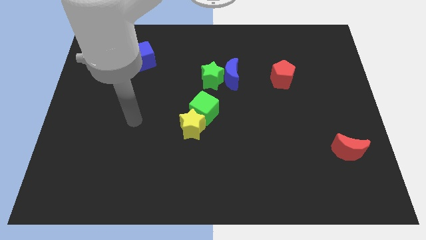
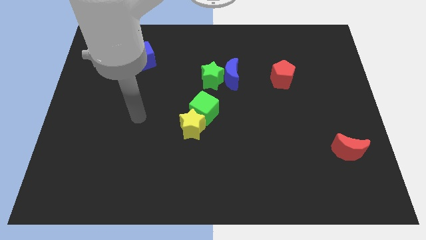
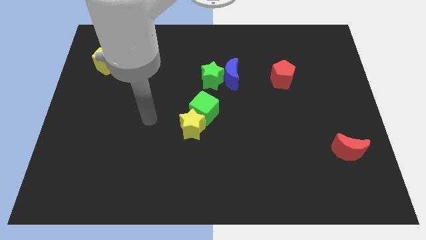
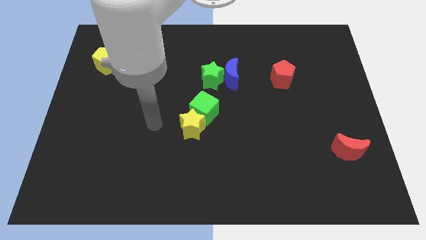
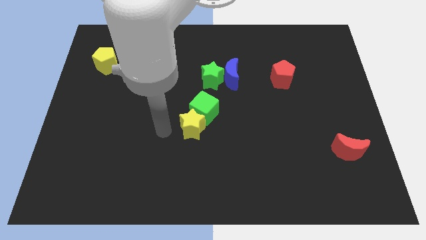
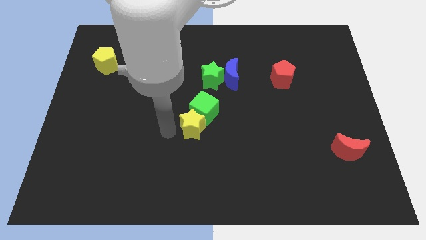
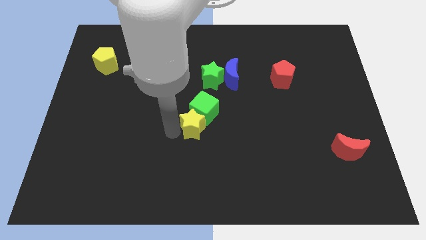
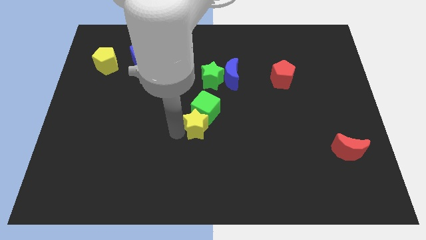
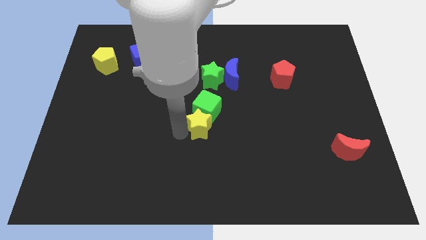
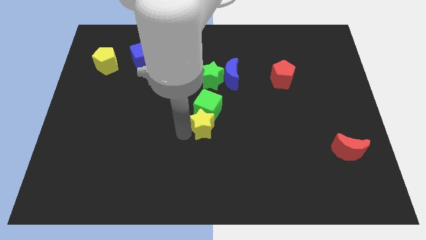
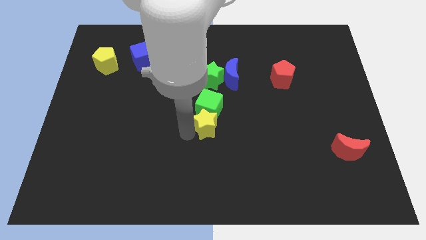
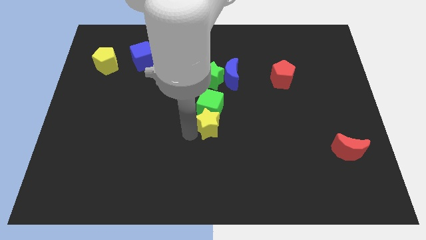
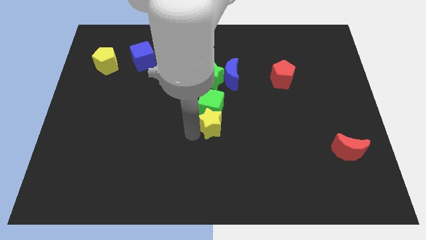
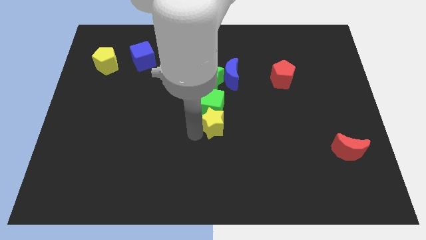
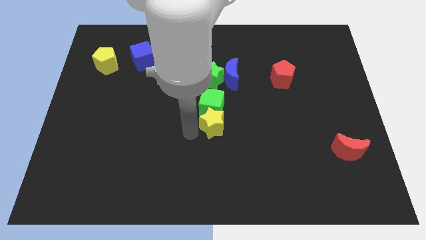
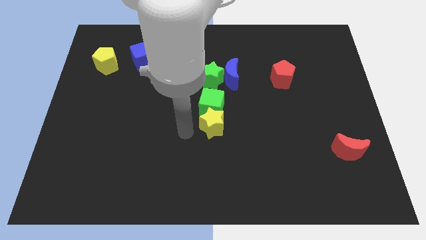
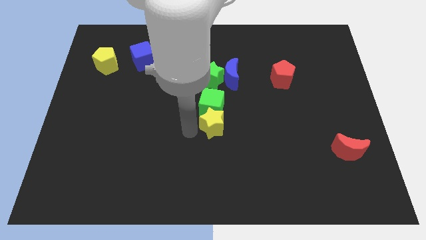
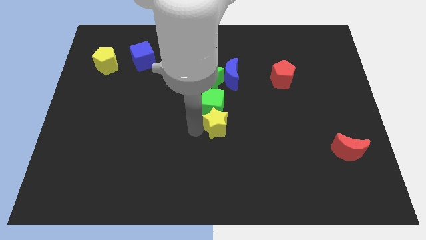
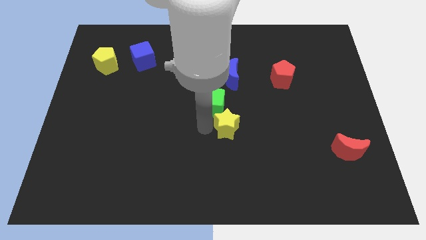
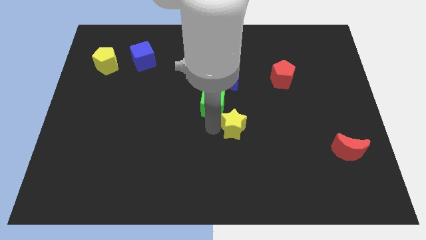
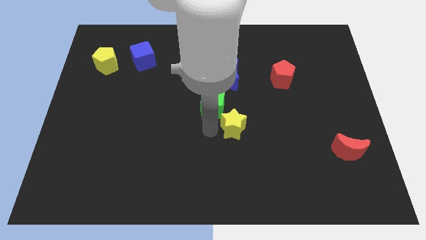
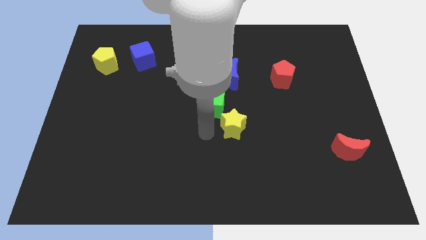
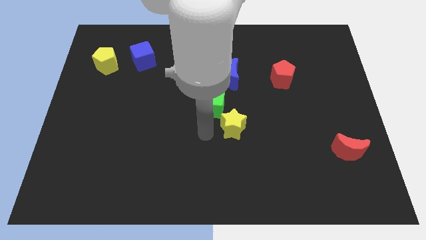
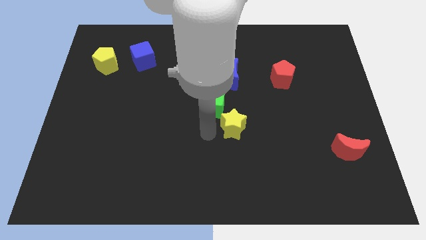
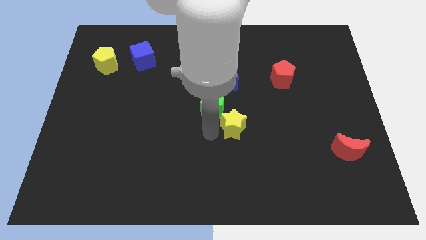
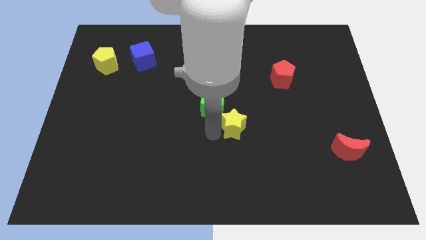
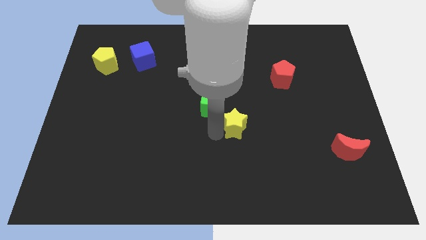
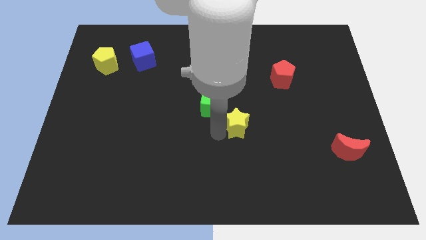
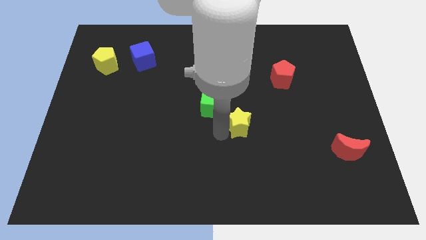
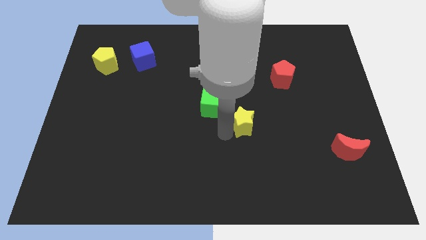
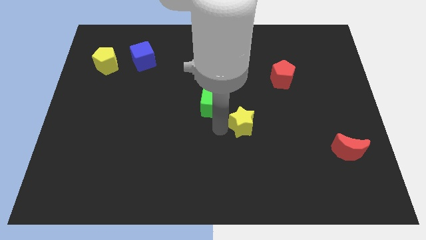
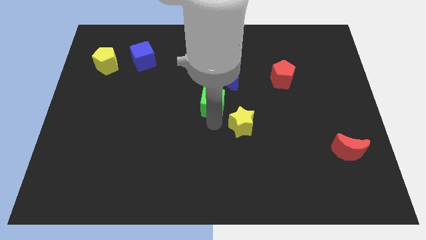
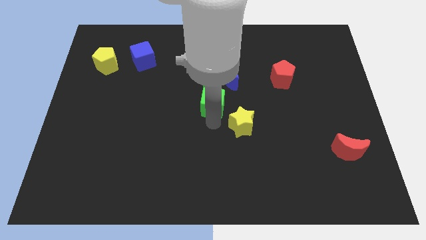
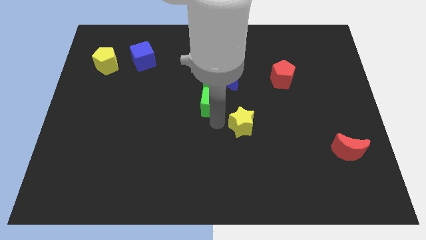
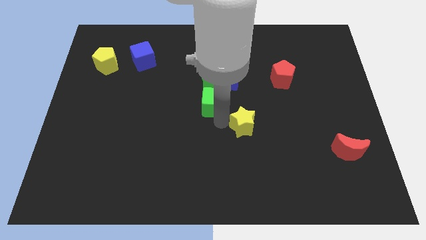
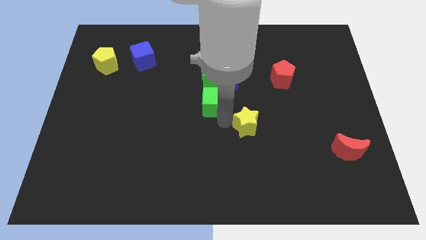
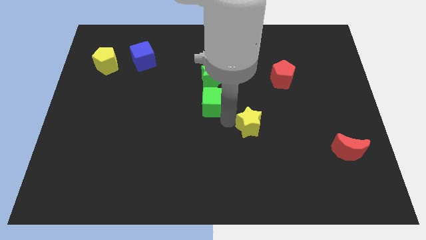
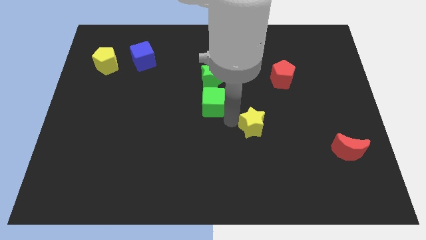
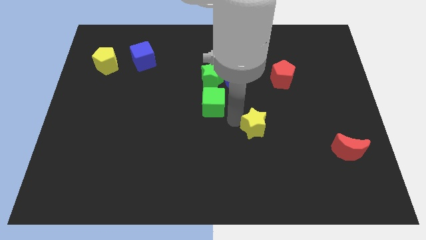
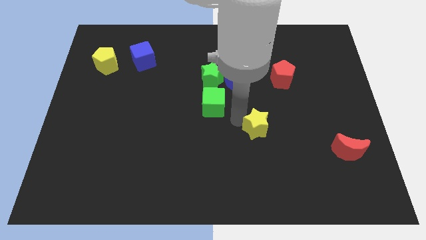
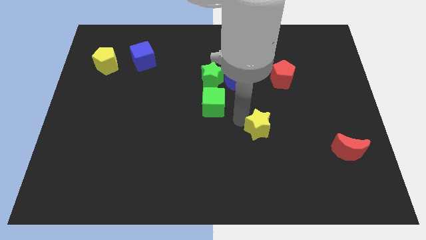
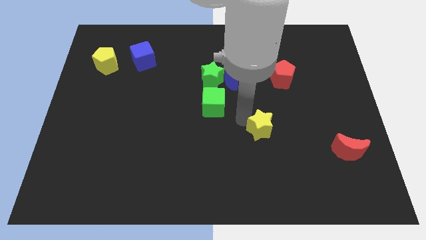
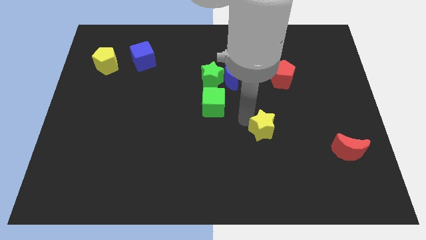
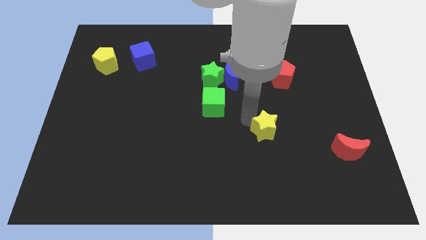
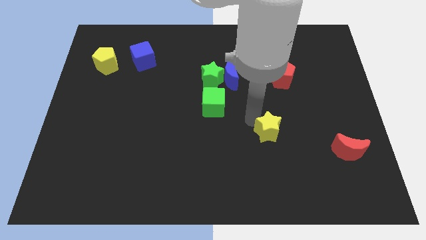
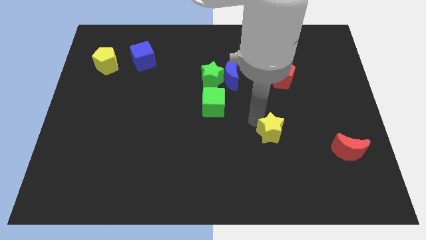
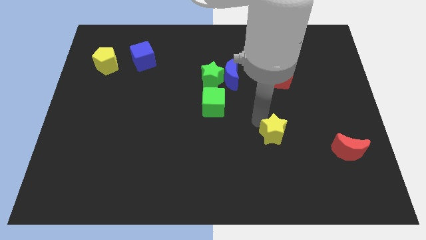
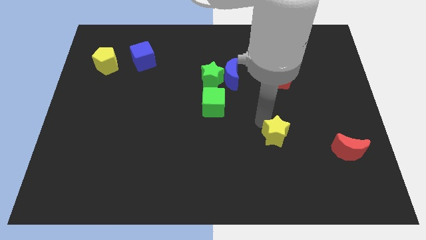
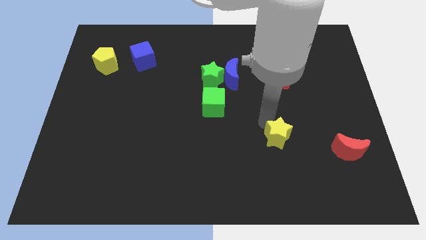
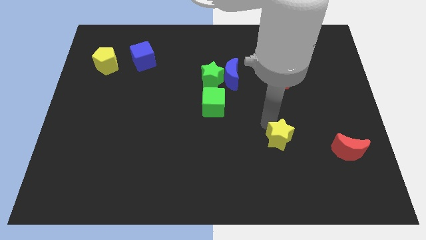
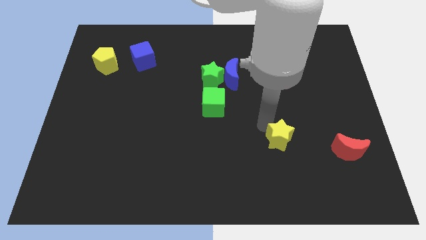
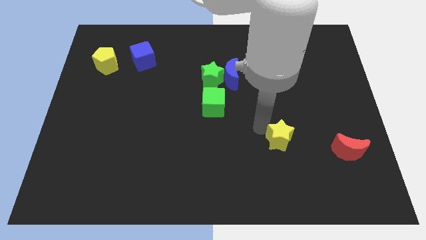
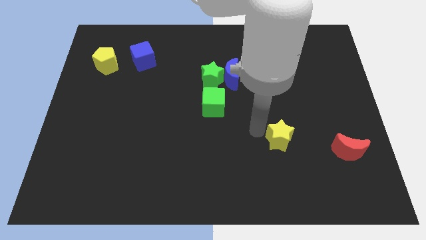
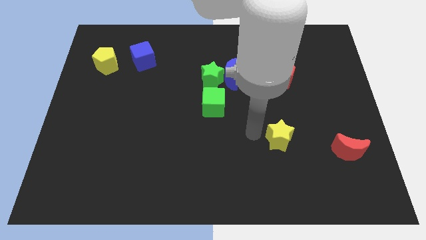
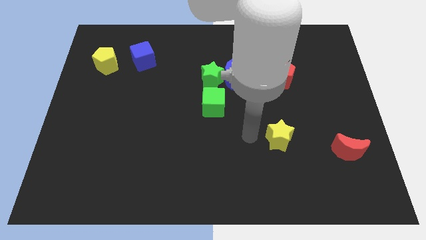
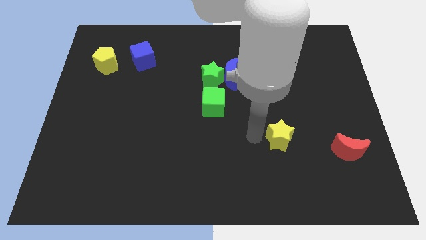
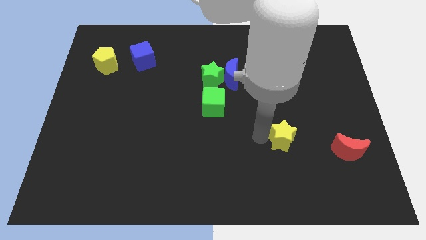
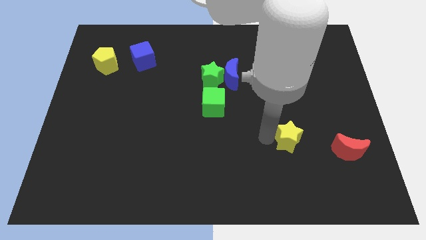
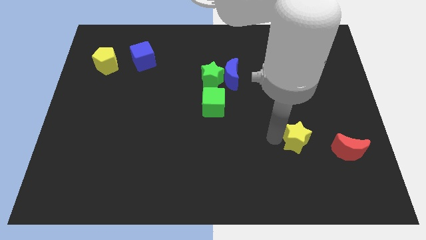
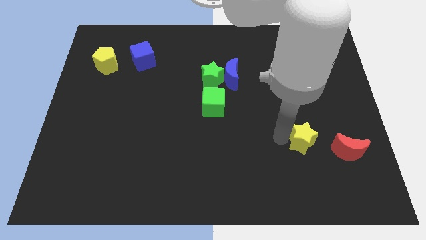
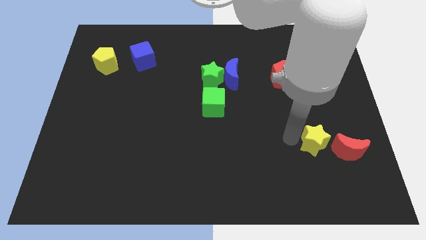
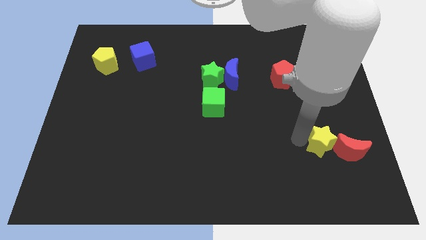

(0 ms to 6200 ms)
put the yellow star next to the red moon

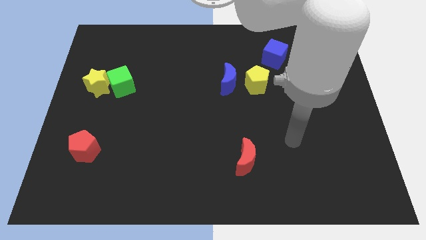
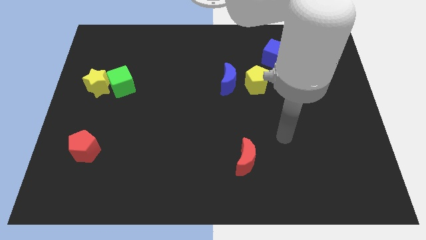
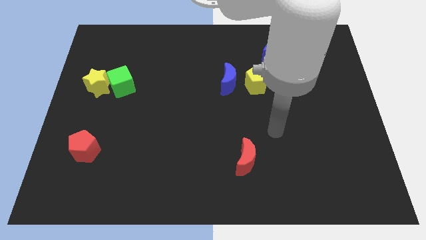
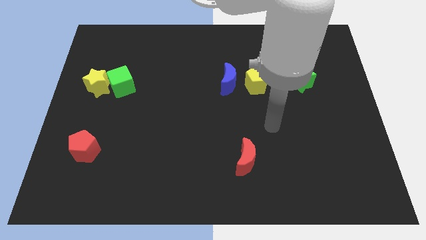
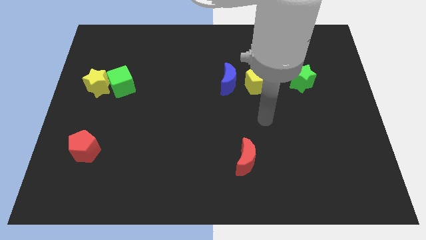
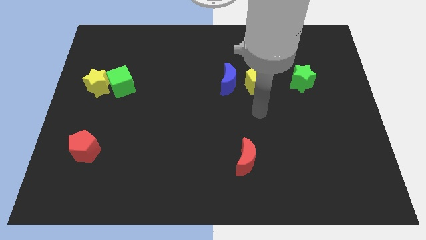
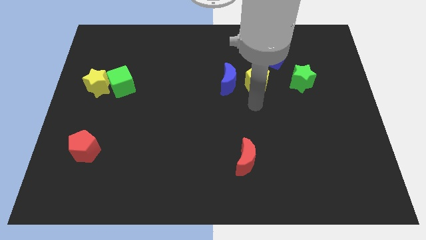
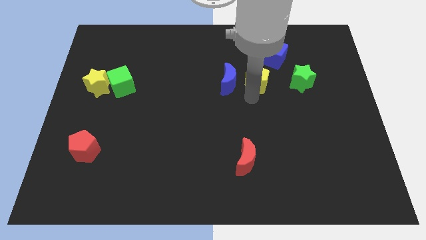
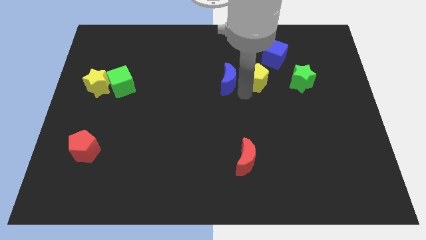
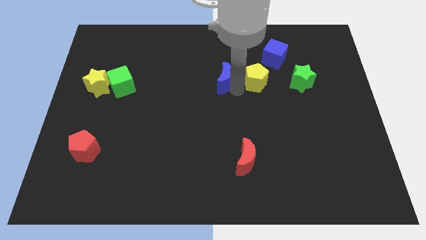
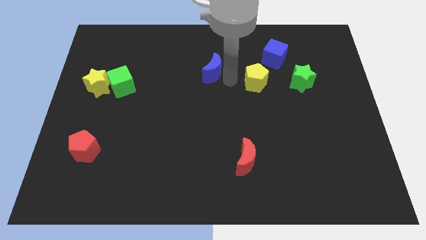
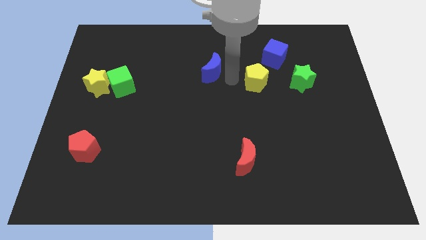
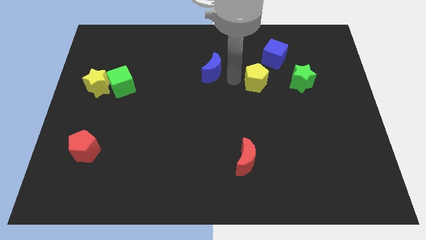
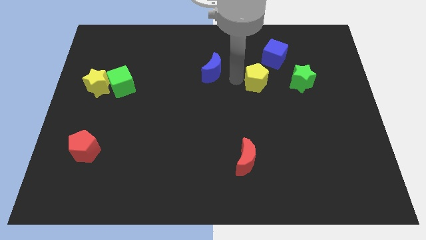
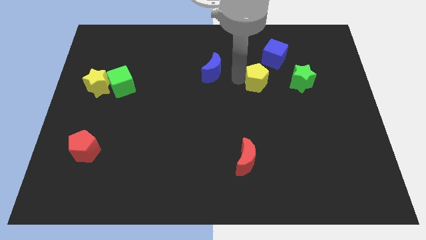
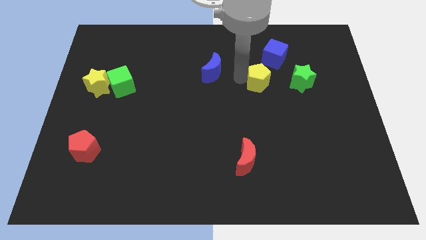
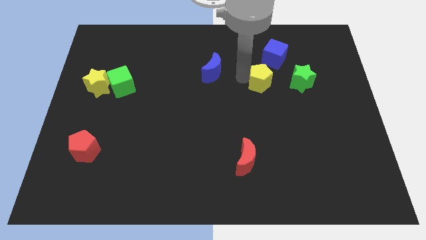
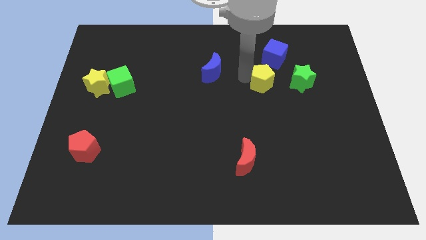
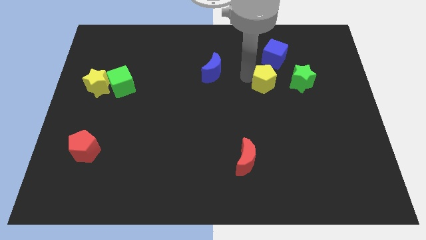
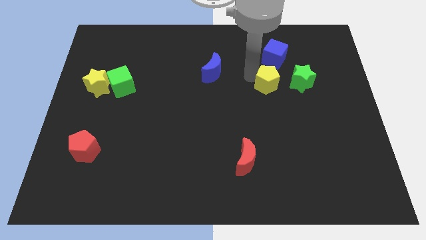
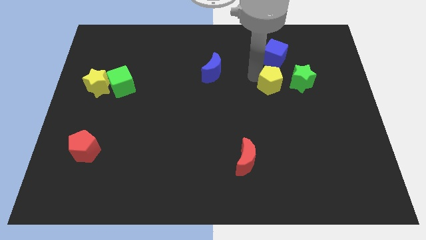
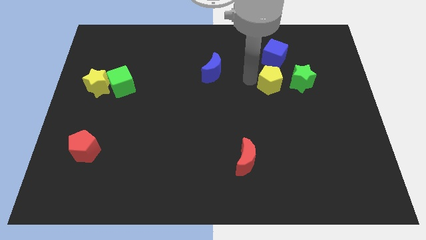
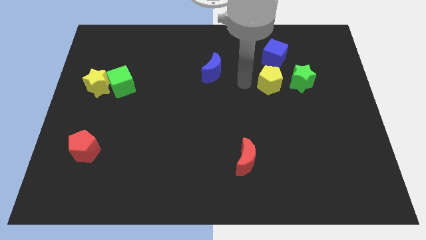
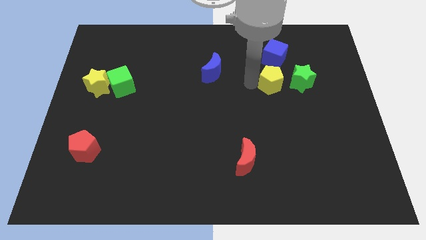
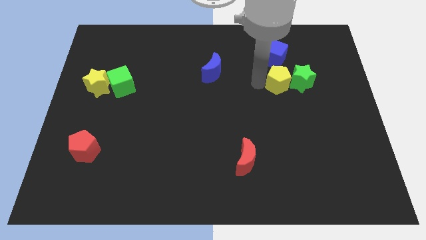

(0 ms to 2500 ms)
put the yellow pentagon close to the green star
